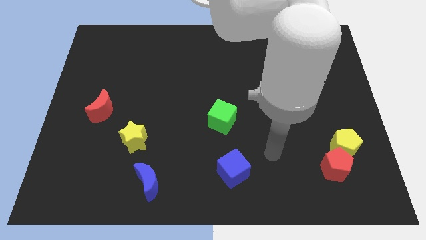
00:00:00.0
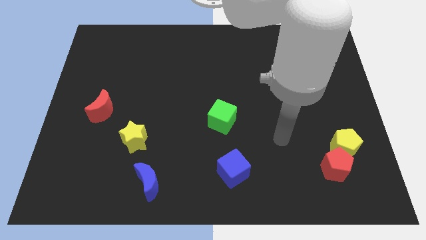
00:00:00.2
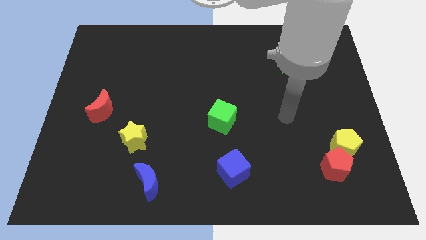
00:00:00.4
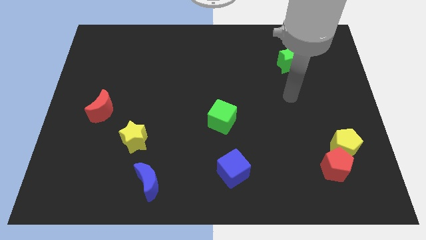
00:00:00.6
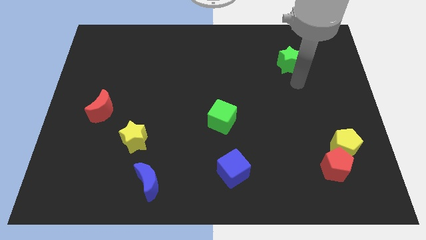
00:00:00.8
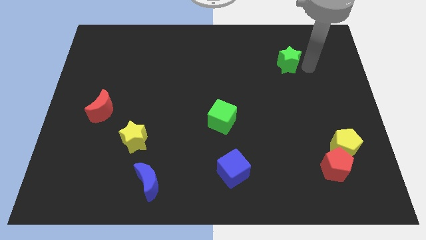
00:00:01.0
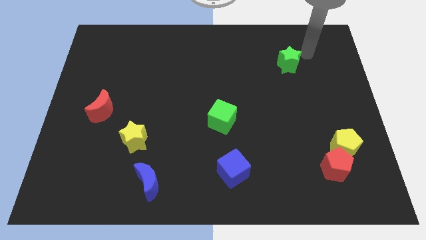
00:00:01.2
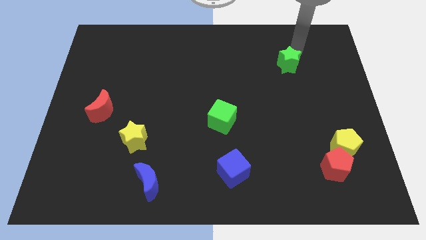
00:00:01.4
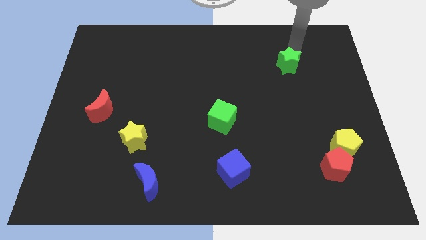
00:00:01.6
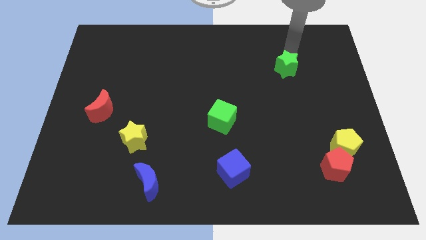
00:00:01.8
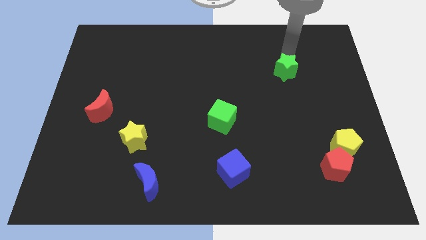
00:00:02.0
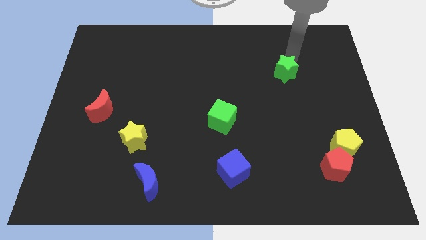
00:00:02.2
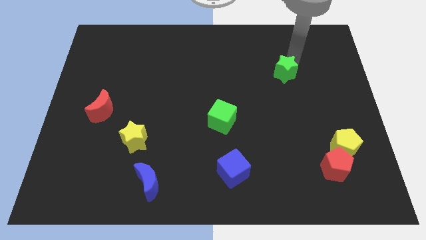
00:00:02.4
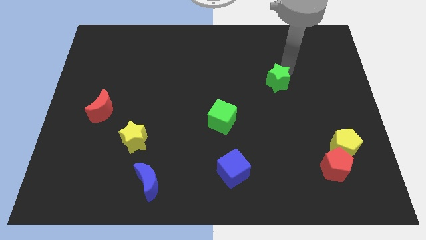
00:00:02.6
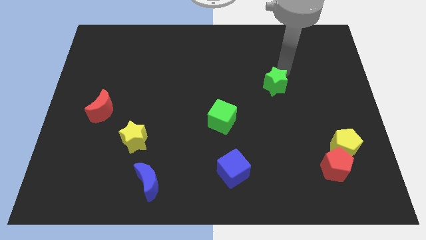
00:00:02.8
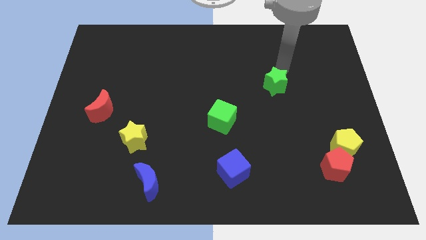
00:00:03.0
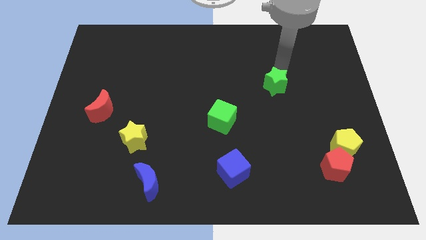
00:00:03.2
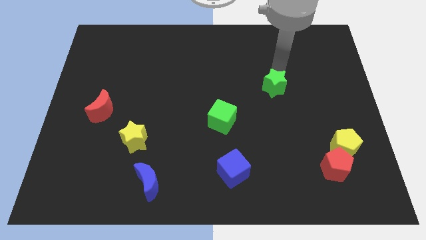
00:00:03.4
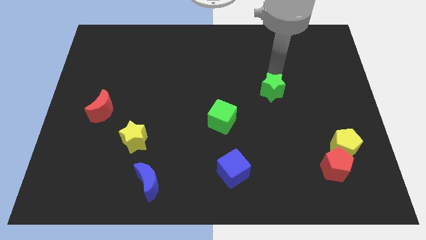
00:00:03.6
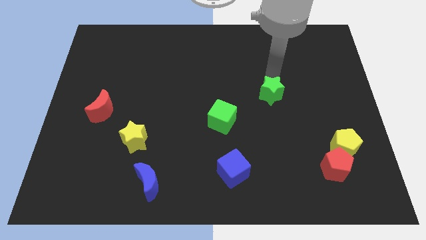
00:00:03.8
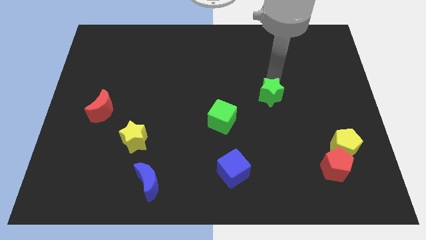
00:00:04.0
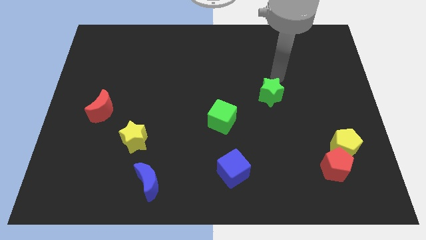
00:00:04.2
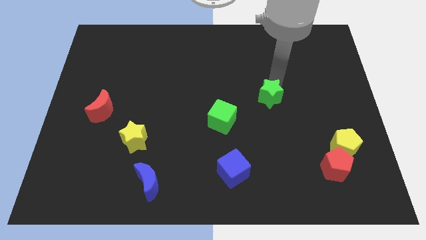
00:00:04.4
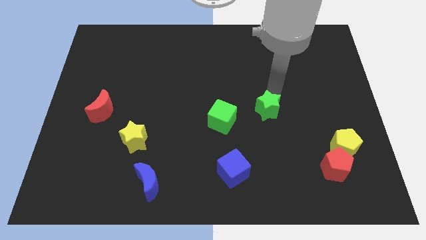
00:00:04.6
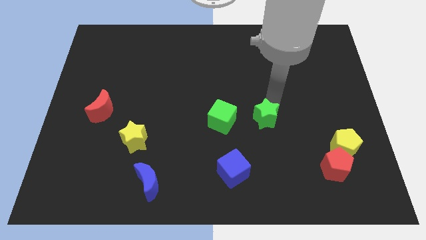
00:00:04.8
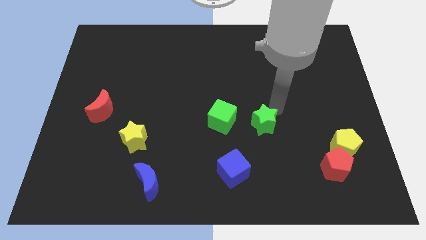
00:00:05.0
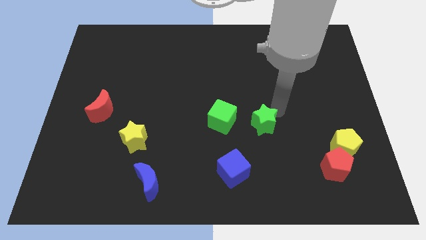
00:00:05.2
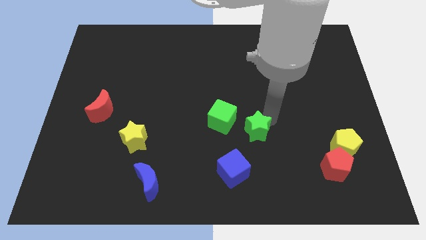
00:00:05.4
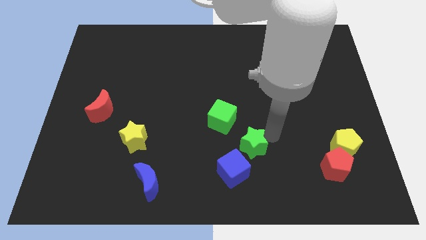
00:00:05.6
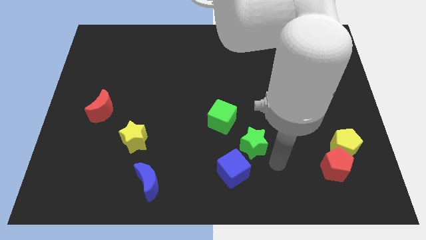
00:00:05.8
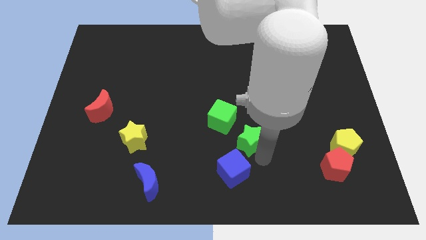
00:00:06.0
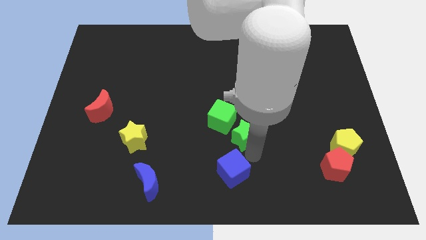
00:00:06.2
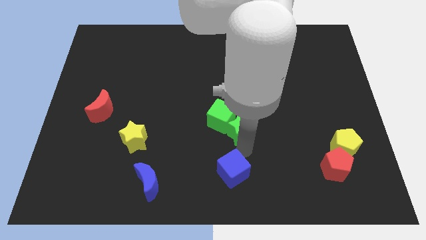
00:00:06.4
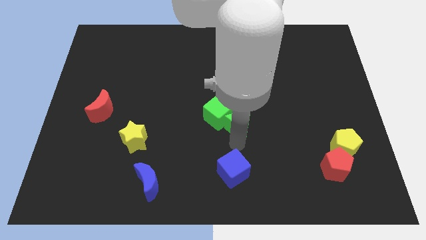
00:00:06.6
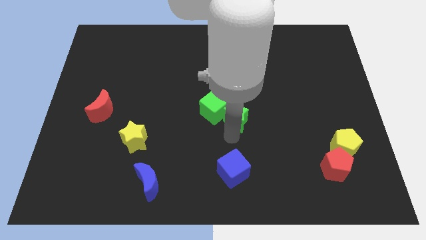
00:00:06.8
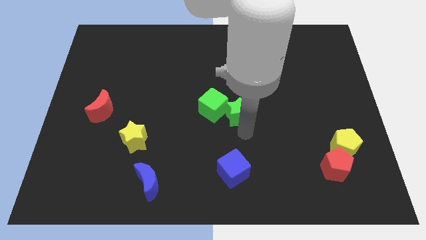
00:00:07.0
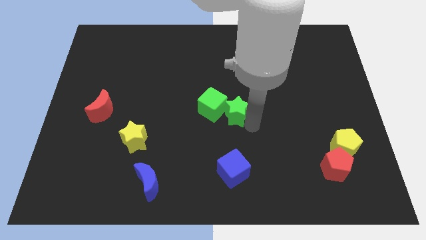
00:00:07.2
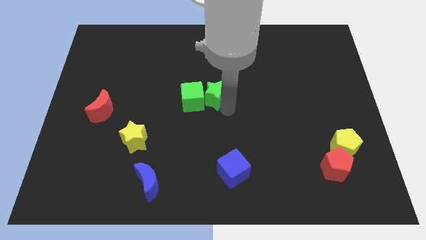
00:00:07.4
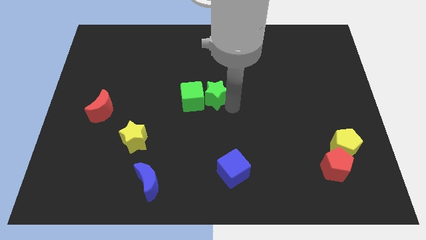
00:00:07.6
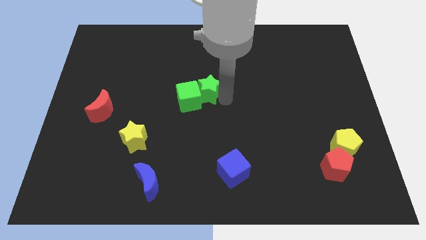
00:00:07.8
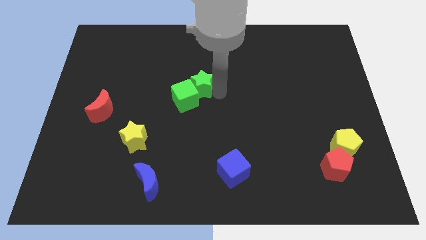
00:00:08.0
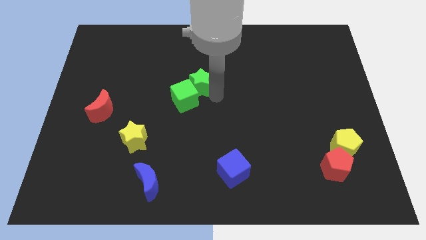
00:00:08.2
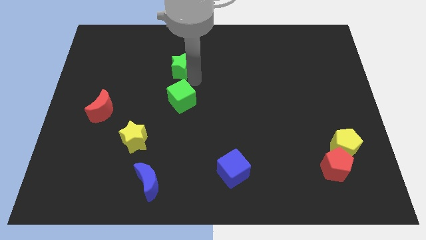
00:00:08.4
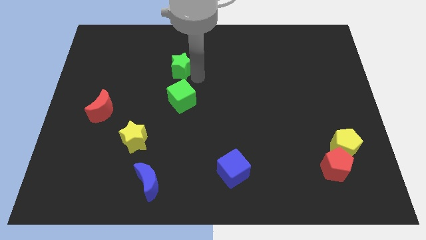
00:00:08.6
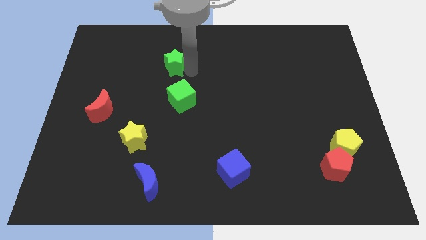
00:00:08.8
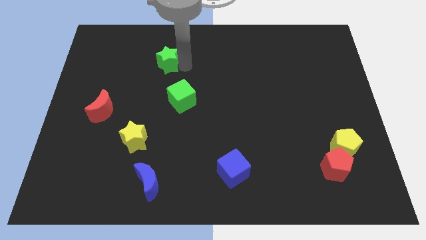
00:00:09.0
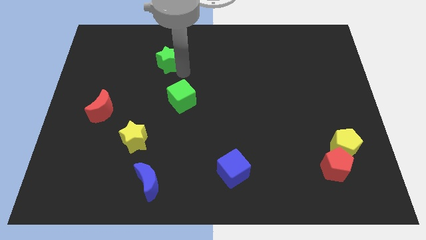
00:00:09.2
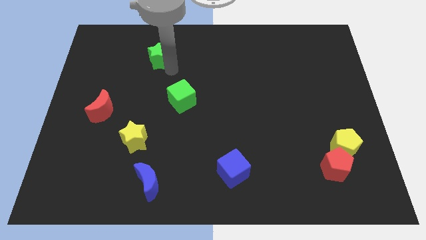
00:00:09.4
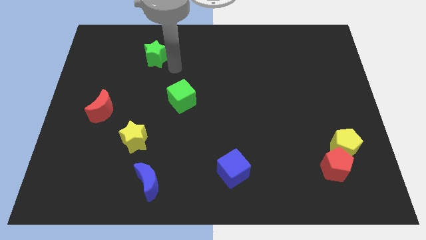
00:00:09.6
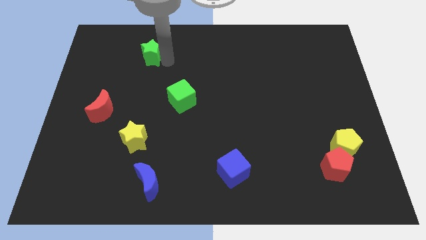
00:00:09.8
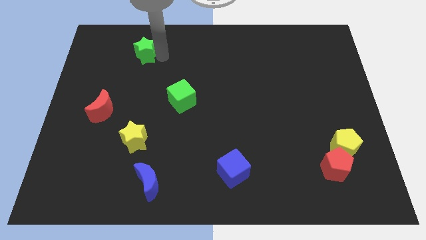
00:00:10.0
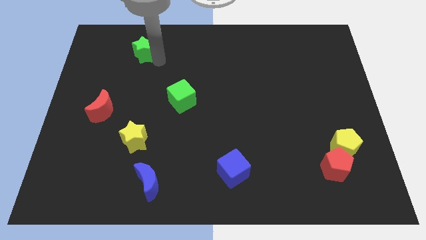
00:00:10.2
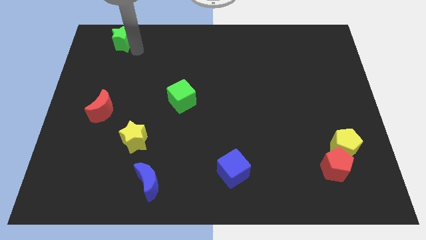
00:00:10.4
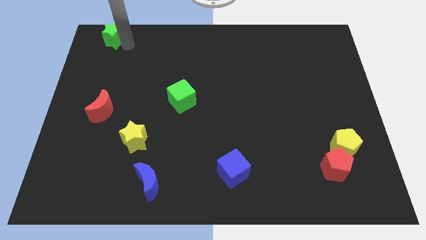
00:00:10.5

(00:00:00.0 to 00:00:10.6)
put the green star to the top left

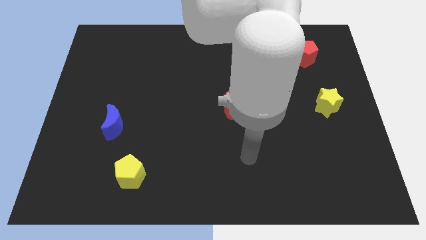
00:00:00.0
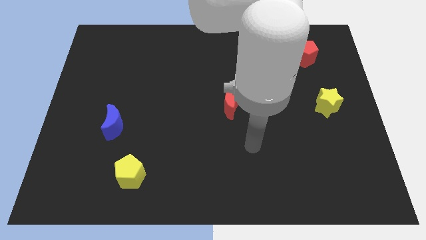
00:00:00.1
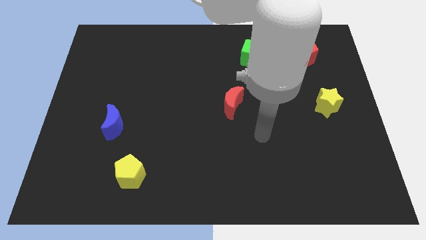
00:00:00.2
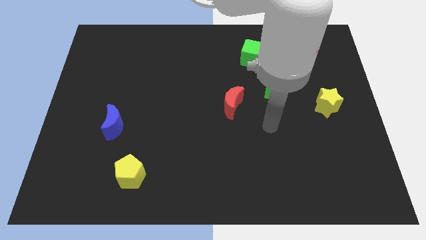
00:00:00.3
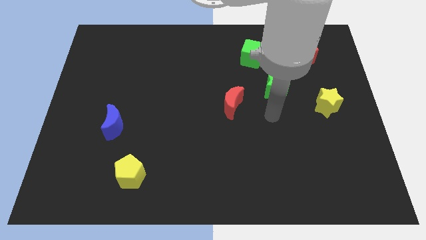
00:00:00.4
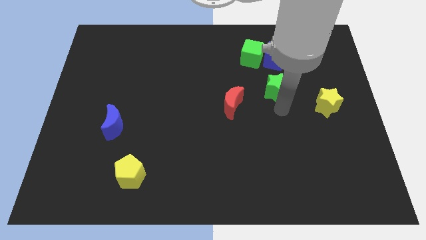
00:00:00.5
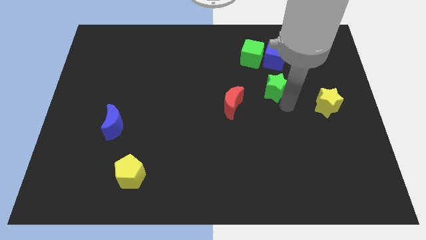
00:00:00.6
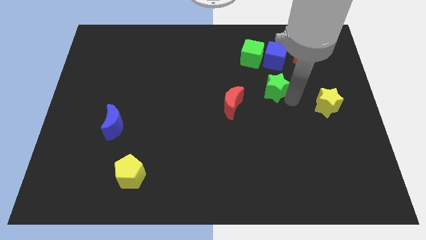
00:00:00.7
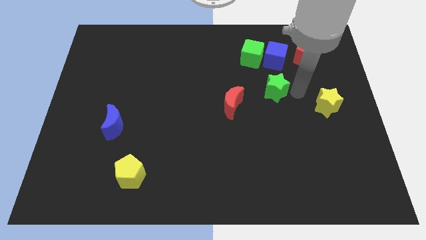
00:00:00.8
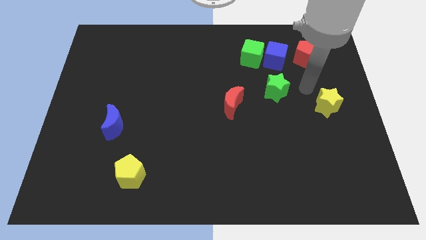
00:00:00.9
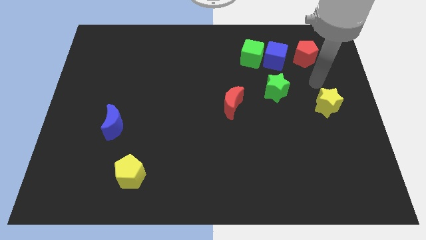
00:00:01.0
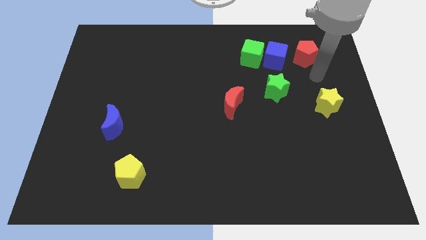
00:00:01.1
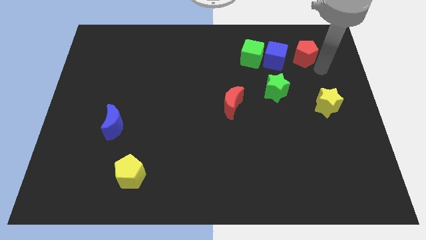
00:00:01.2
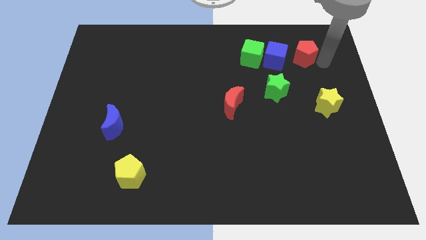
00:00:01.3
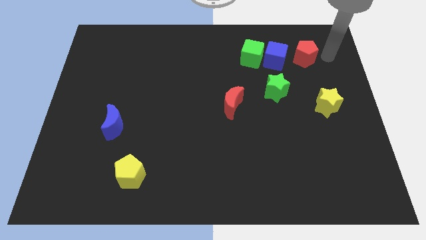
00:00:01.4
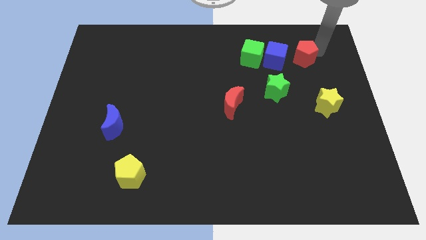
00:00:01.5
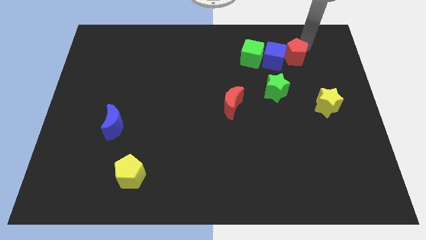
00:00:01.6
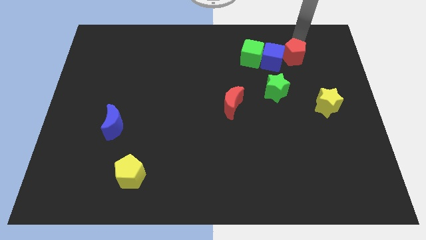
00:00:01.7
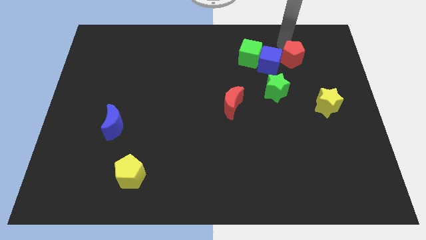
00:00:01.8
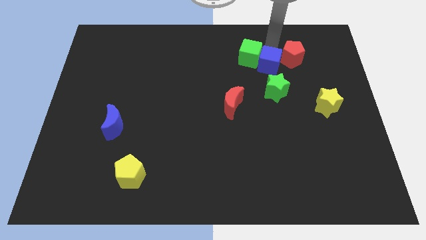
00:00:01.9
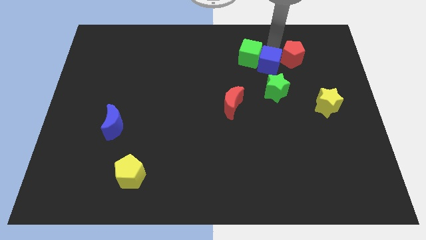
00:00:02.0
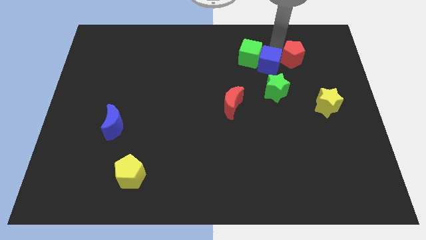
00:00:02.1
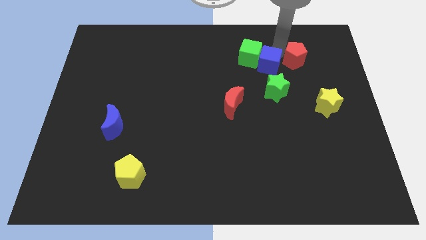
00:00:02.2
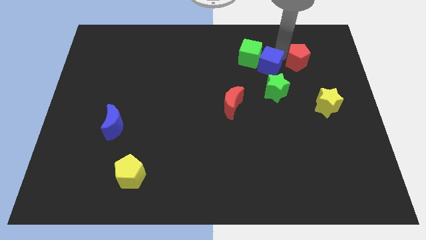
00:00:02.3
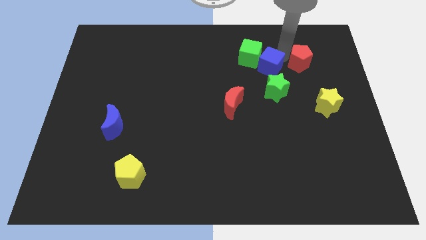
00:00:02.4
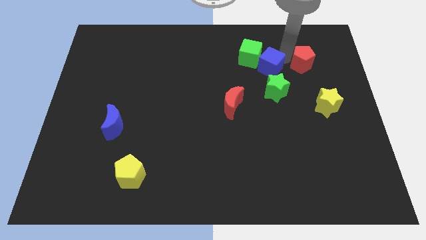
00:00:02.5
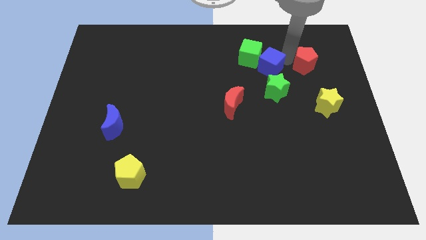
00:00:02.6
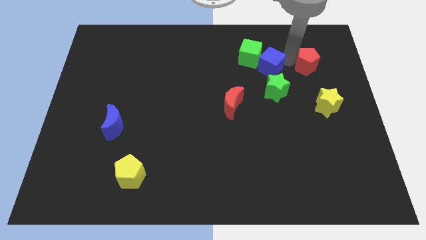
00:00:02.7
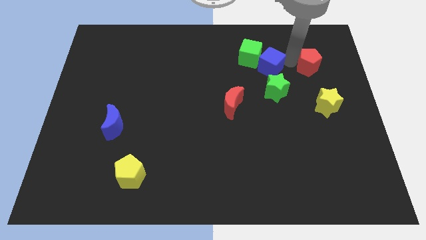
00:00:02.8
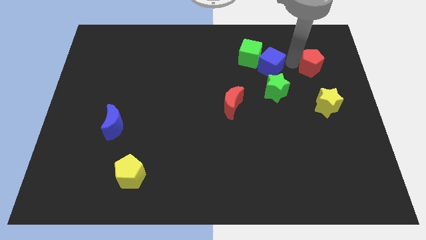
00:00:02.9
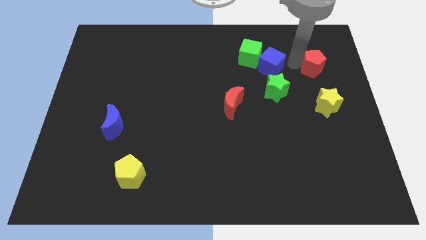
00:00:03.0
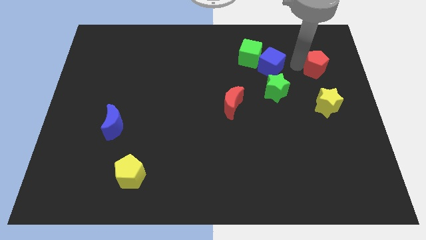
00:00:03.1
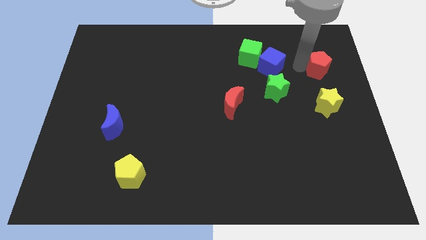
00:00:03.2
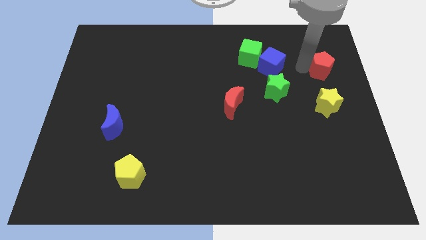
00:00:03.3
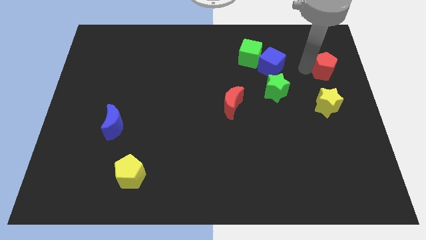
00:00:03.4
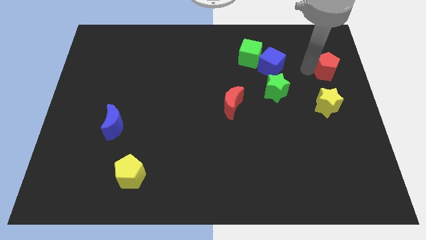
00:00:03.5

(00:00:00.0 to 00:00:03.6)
move the red pentagon to the right side
